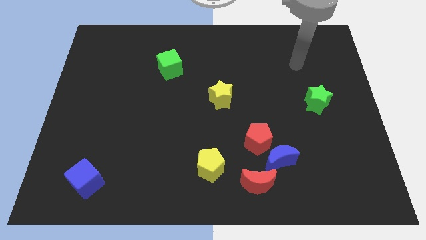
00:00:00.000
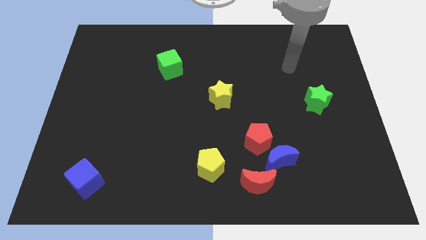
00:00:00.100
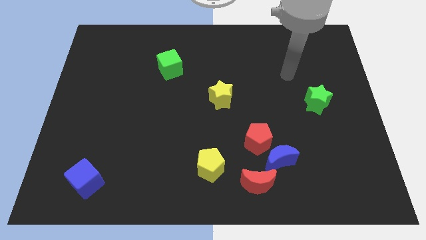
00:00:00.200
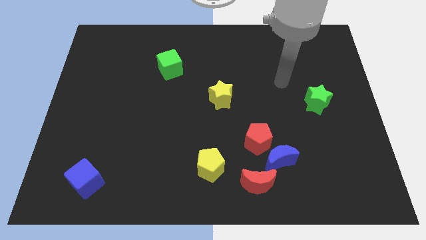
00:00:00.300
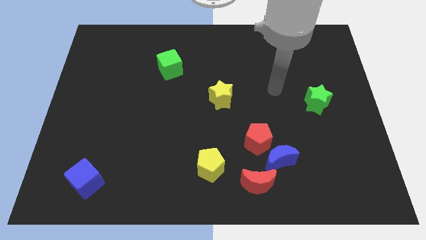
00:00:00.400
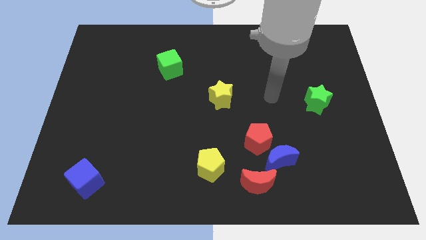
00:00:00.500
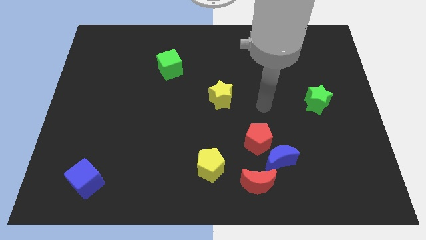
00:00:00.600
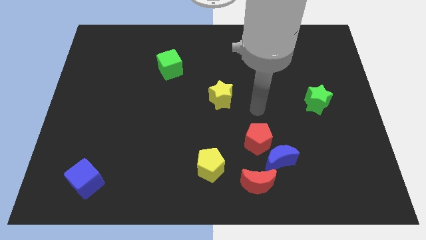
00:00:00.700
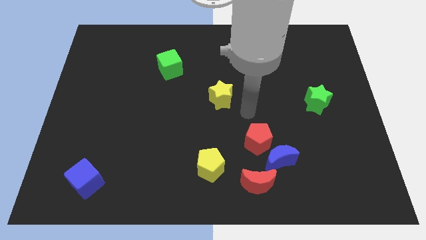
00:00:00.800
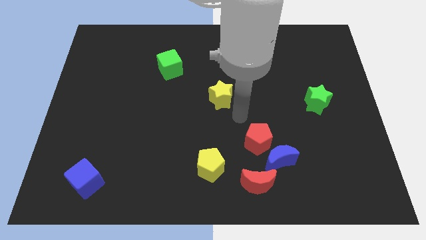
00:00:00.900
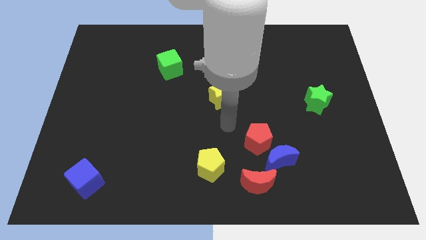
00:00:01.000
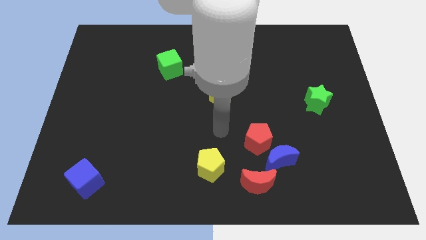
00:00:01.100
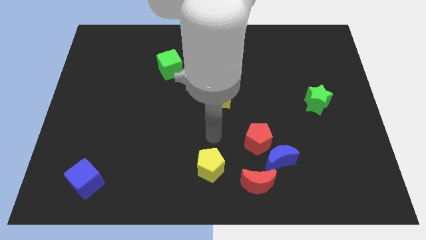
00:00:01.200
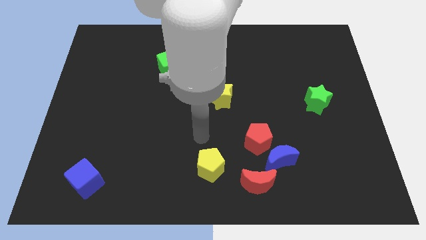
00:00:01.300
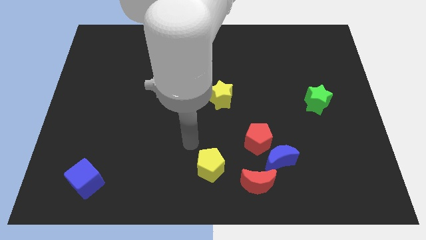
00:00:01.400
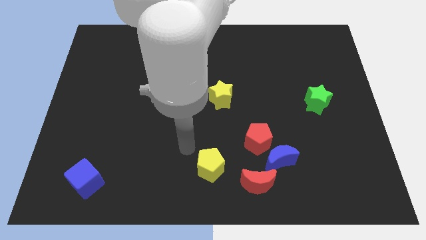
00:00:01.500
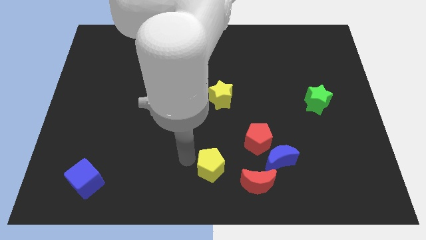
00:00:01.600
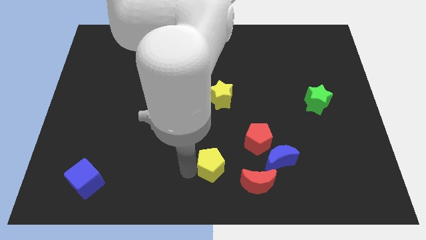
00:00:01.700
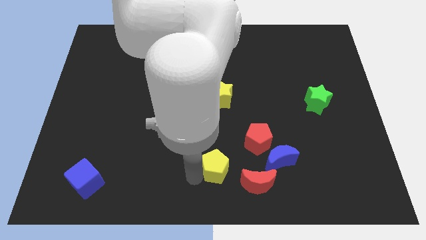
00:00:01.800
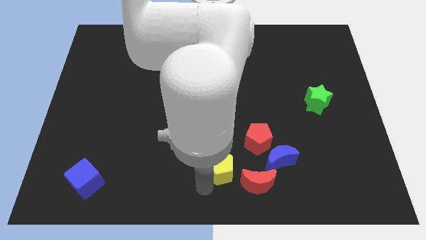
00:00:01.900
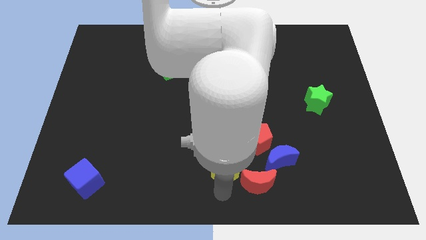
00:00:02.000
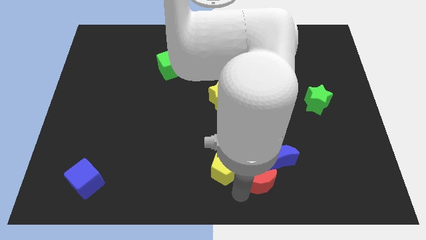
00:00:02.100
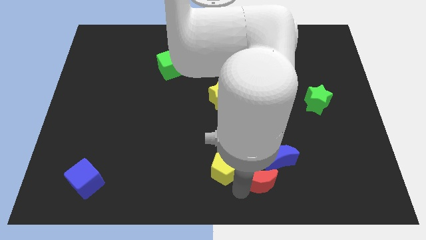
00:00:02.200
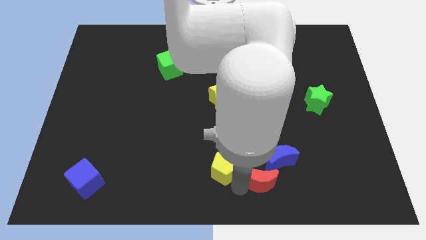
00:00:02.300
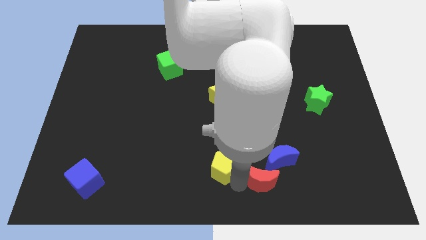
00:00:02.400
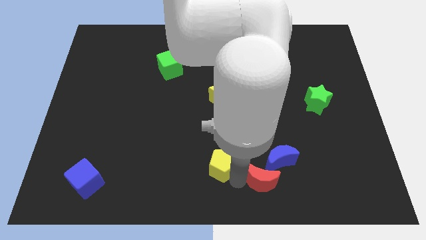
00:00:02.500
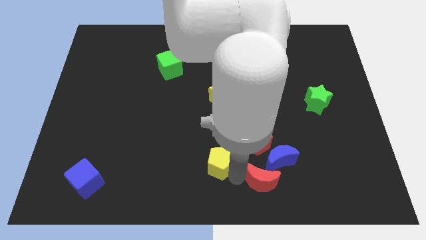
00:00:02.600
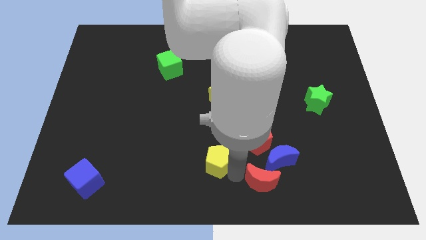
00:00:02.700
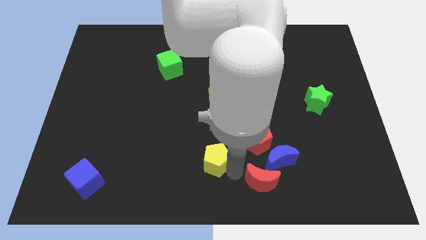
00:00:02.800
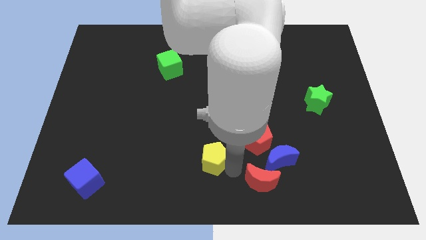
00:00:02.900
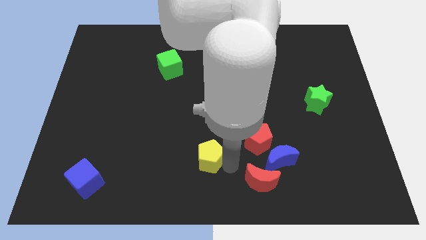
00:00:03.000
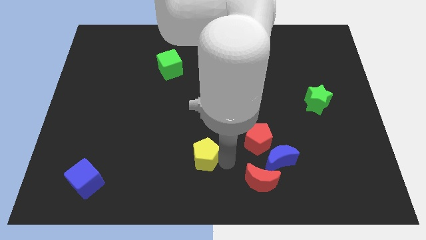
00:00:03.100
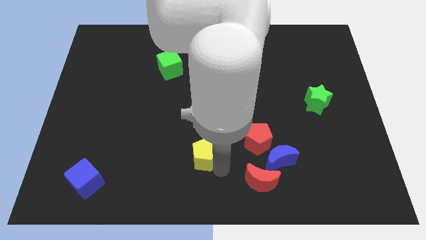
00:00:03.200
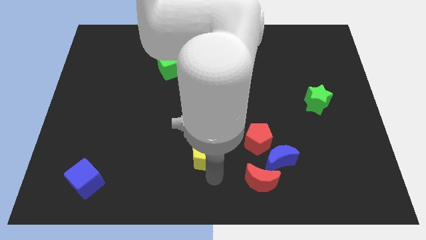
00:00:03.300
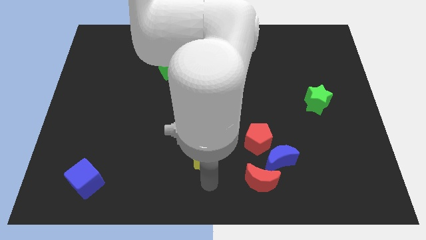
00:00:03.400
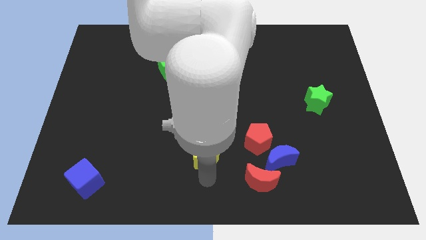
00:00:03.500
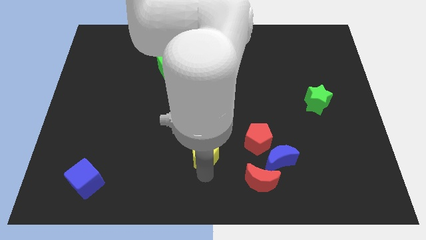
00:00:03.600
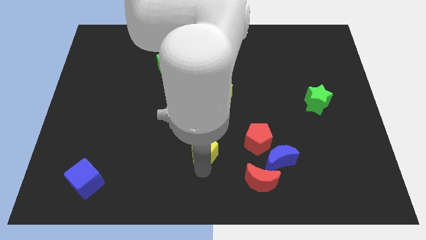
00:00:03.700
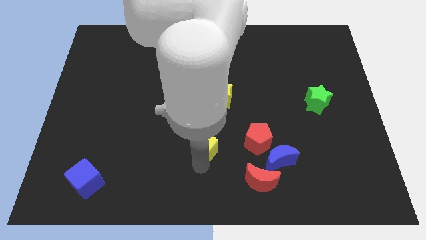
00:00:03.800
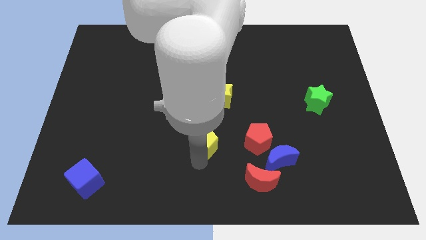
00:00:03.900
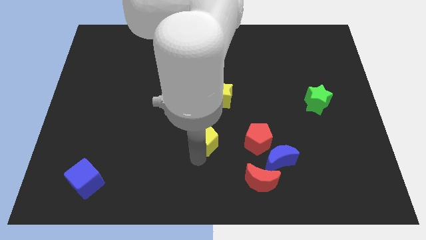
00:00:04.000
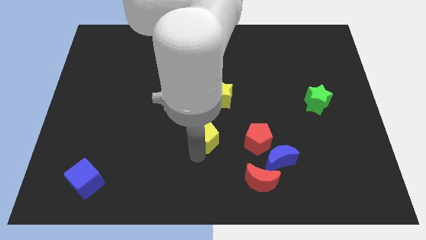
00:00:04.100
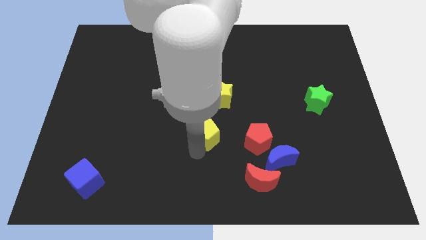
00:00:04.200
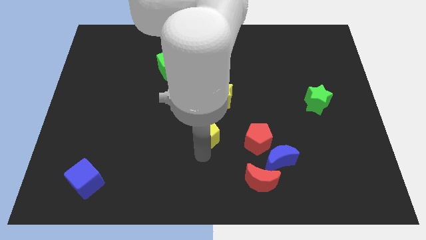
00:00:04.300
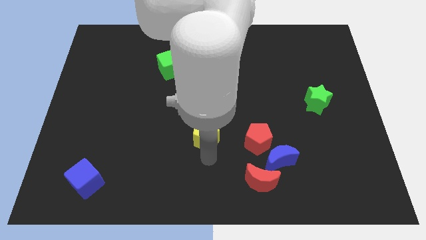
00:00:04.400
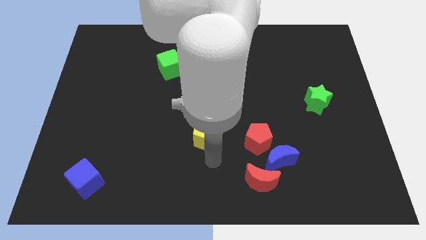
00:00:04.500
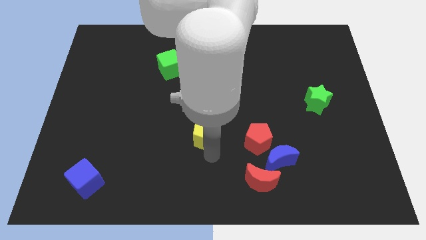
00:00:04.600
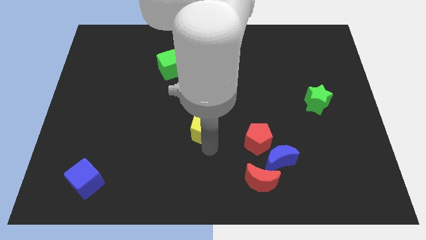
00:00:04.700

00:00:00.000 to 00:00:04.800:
slide the yellow pentagon to the bottom left of the yellow star

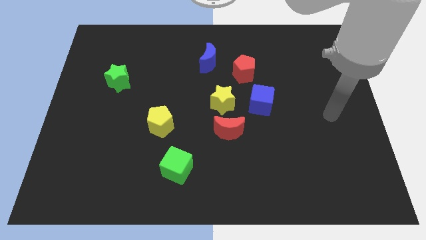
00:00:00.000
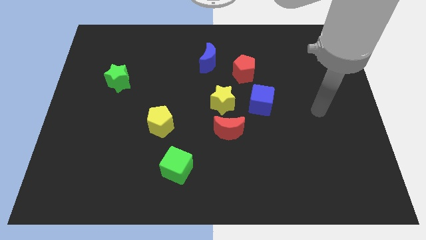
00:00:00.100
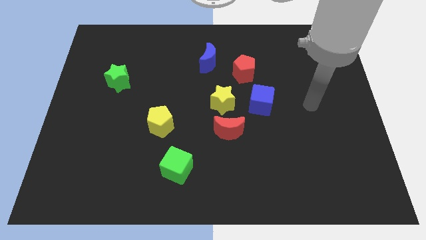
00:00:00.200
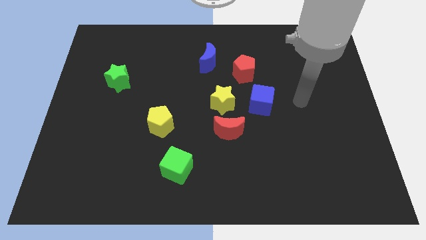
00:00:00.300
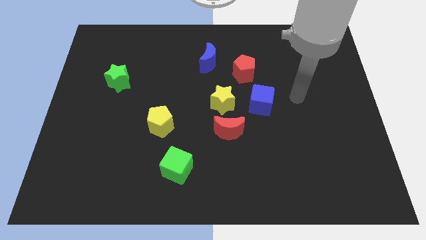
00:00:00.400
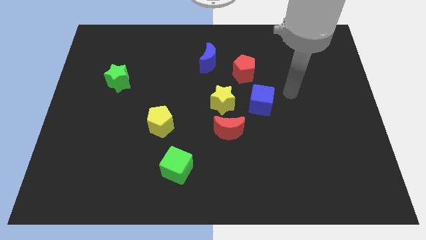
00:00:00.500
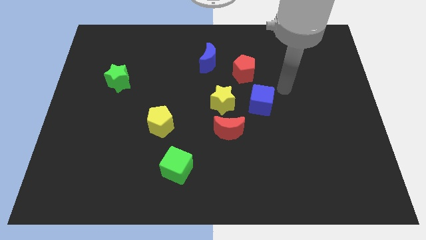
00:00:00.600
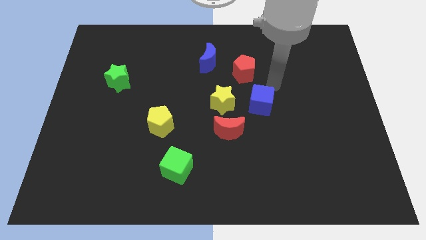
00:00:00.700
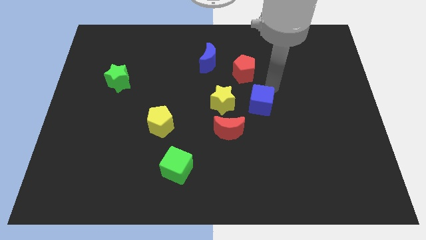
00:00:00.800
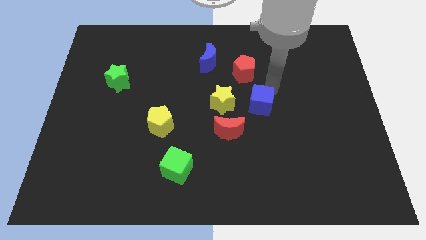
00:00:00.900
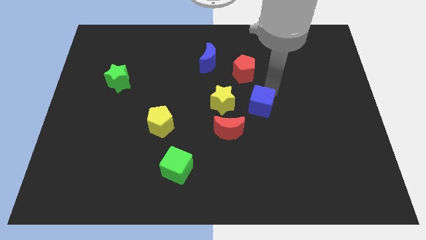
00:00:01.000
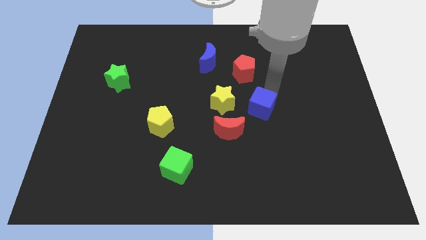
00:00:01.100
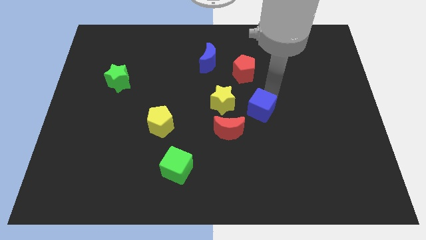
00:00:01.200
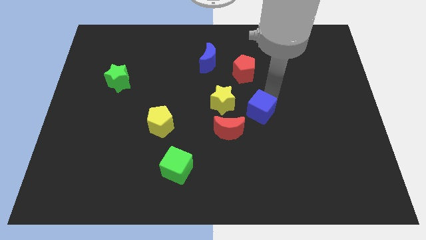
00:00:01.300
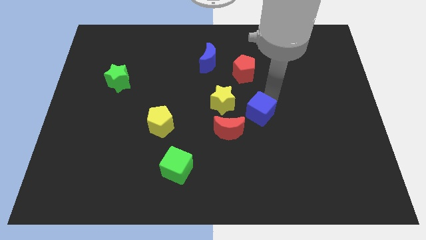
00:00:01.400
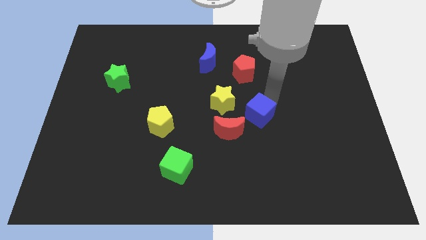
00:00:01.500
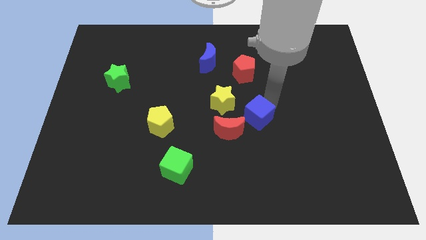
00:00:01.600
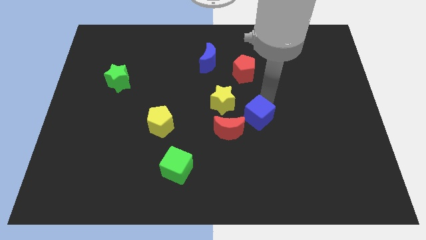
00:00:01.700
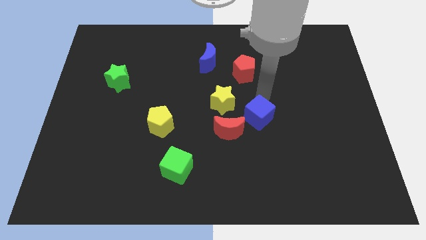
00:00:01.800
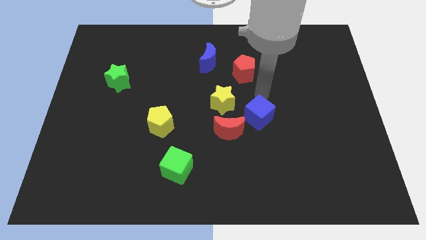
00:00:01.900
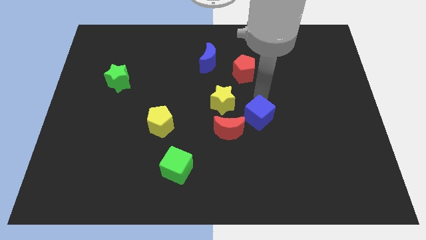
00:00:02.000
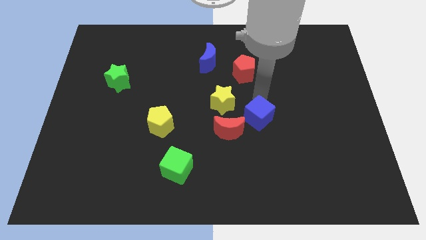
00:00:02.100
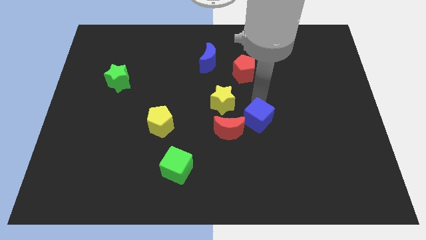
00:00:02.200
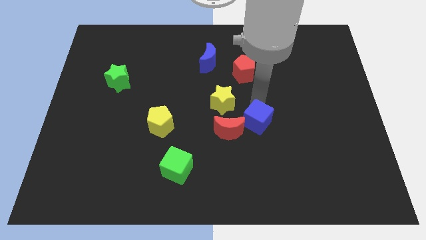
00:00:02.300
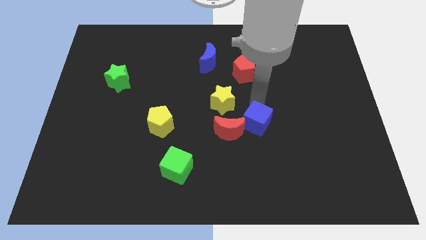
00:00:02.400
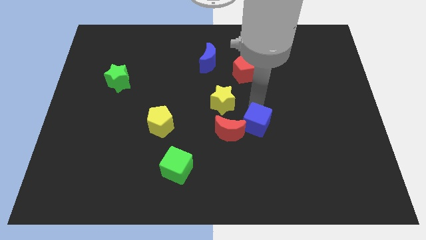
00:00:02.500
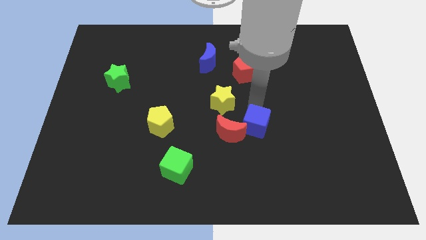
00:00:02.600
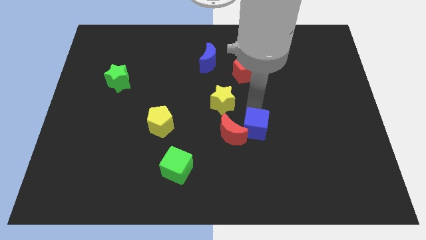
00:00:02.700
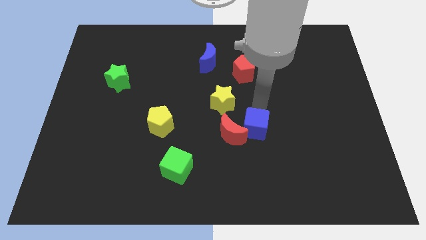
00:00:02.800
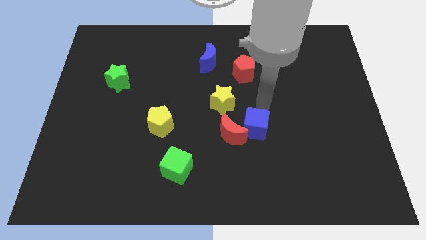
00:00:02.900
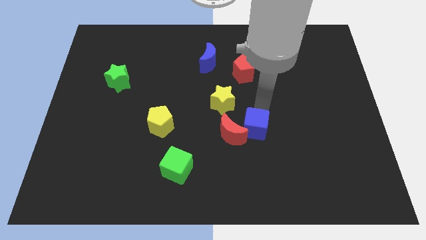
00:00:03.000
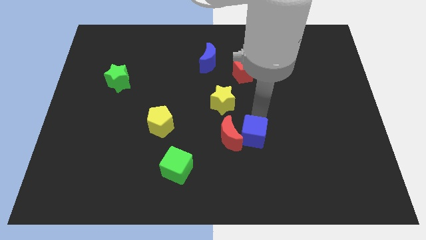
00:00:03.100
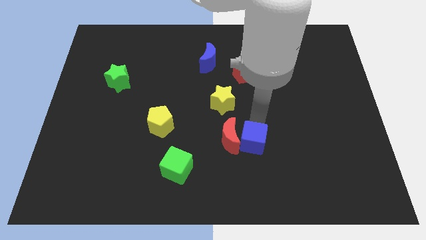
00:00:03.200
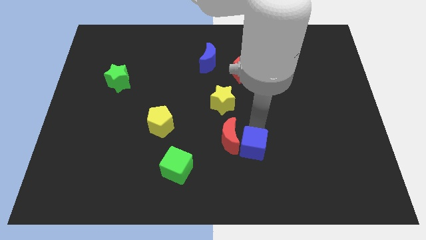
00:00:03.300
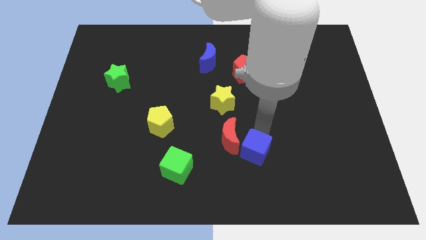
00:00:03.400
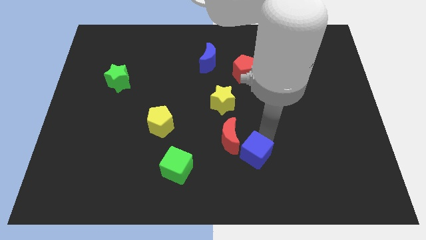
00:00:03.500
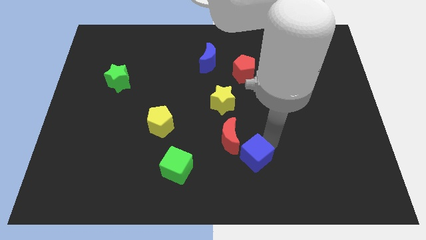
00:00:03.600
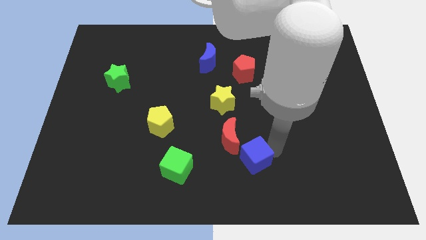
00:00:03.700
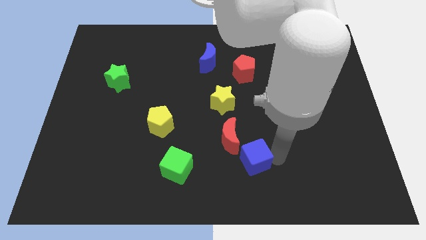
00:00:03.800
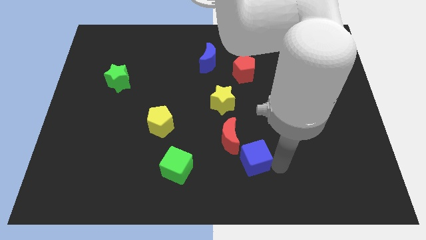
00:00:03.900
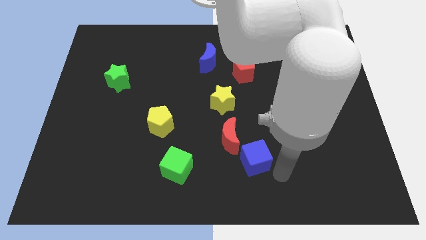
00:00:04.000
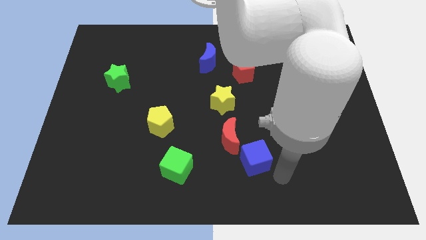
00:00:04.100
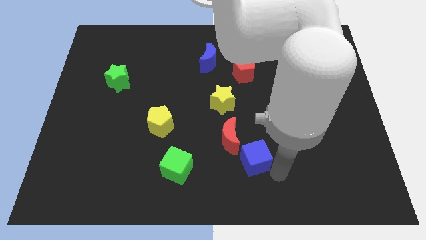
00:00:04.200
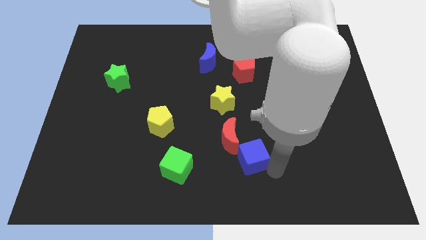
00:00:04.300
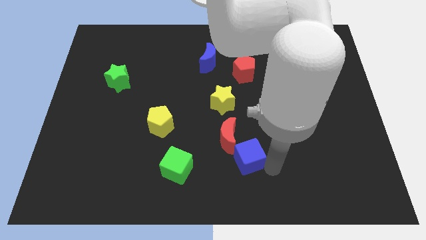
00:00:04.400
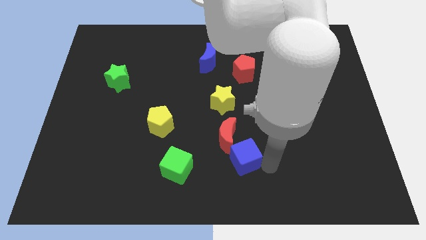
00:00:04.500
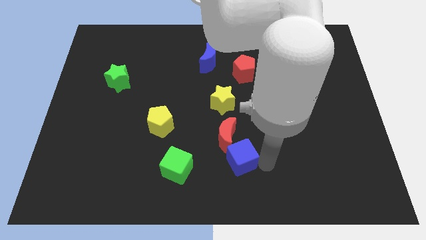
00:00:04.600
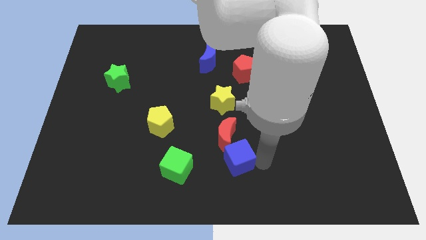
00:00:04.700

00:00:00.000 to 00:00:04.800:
move the blue cube below the yellow star
